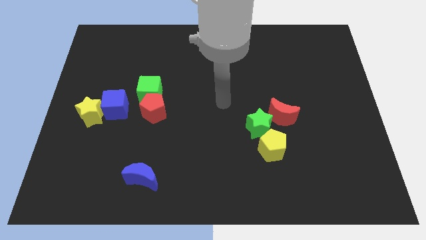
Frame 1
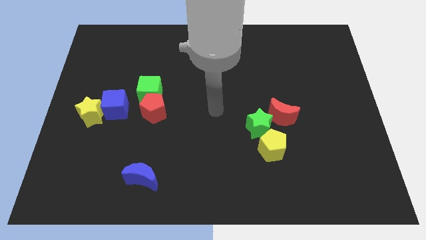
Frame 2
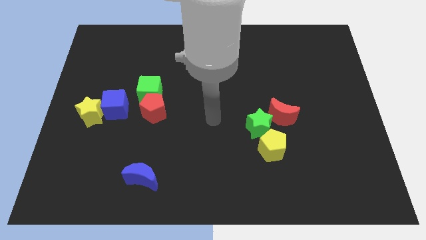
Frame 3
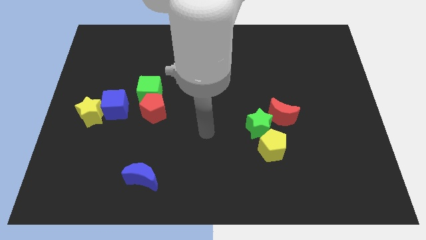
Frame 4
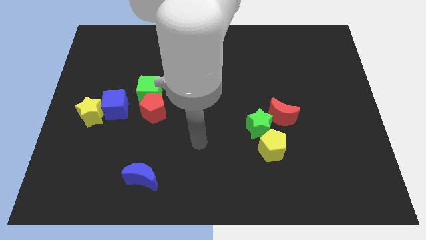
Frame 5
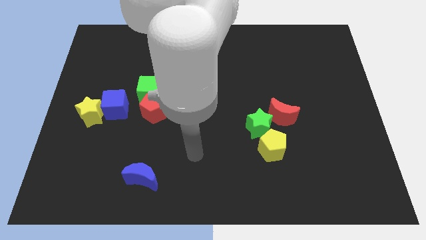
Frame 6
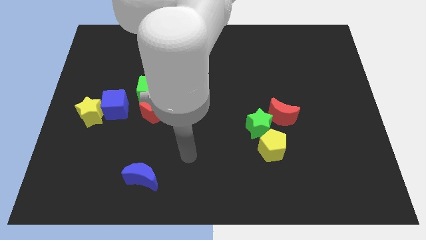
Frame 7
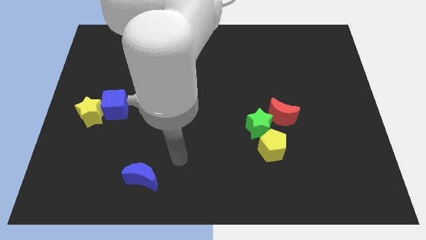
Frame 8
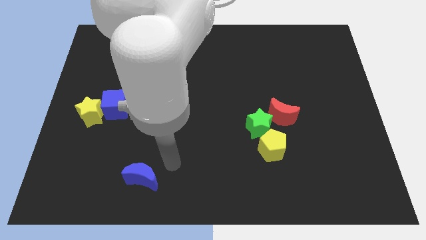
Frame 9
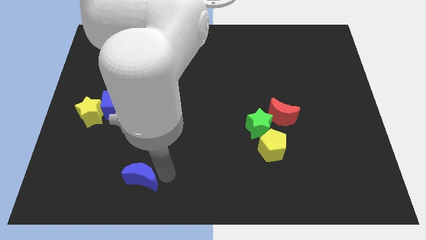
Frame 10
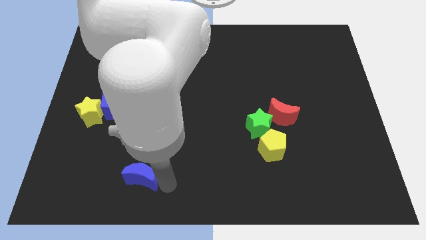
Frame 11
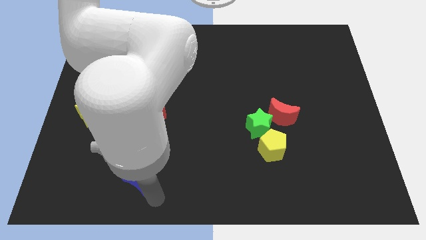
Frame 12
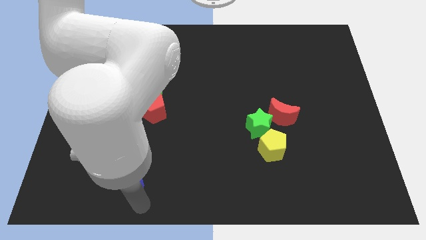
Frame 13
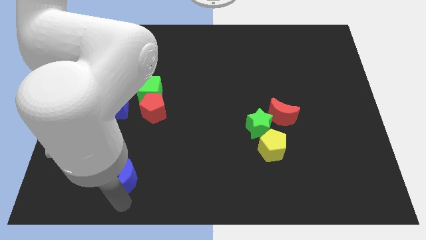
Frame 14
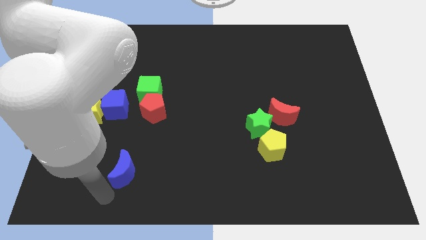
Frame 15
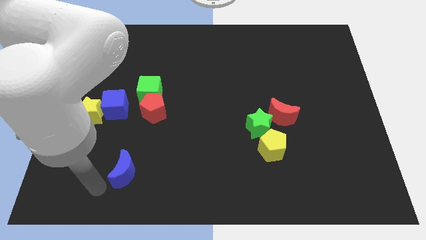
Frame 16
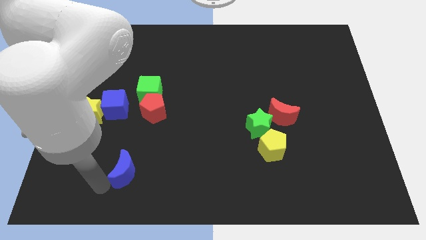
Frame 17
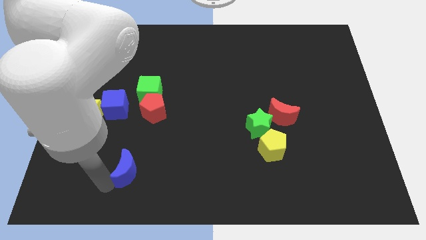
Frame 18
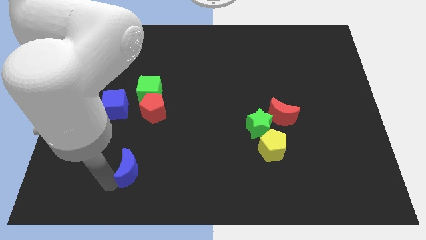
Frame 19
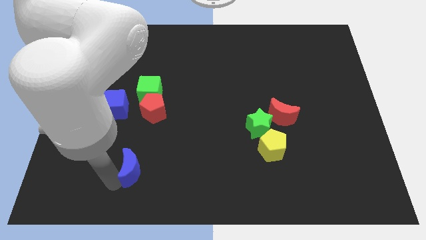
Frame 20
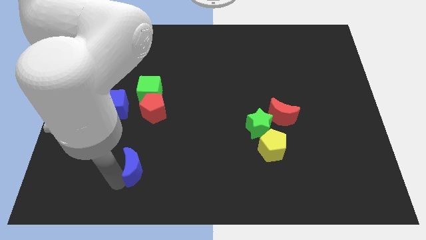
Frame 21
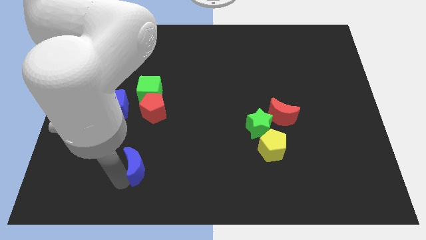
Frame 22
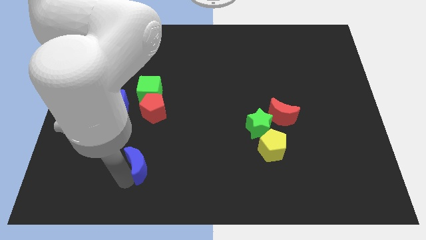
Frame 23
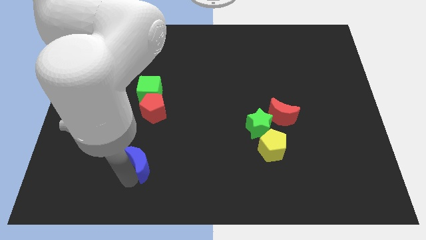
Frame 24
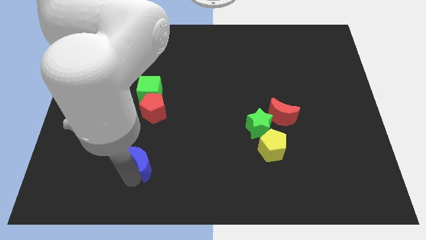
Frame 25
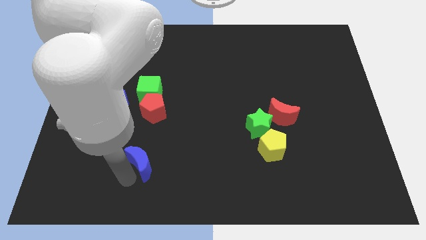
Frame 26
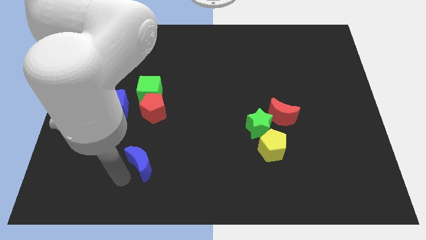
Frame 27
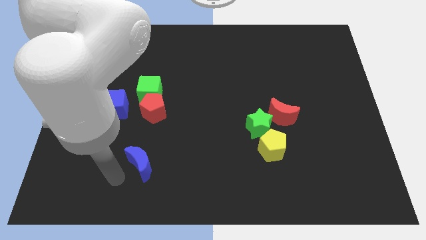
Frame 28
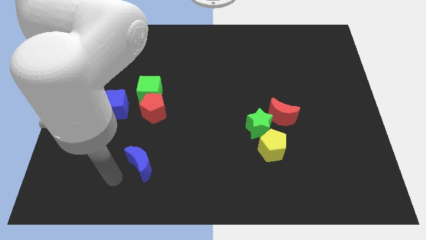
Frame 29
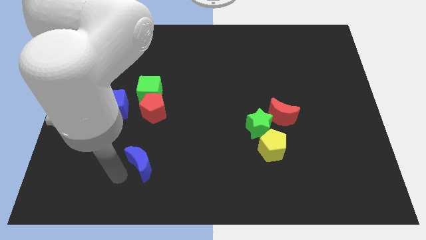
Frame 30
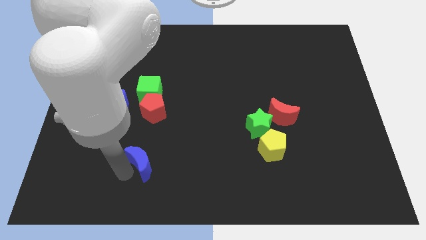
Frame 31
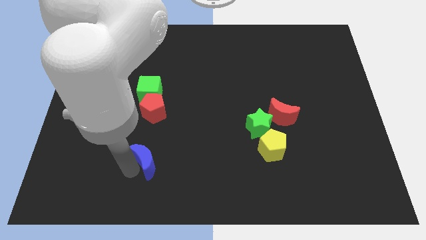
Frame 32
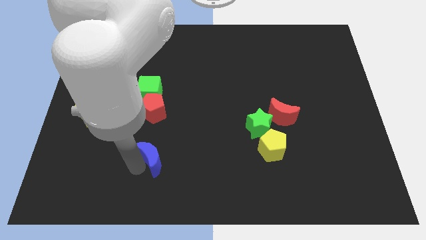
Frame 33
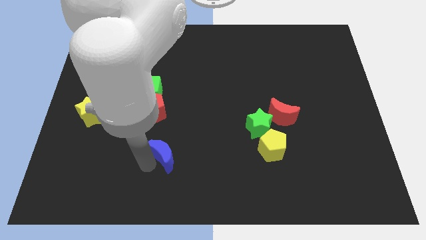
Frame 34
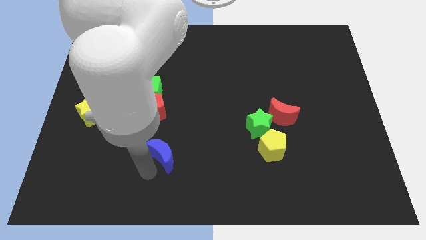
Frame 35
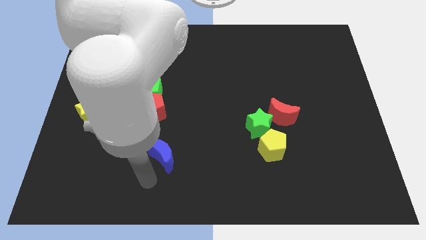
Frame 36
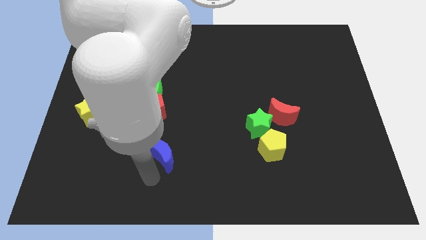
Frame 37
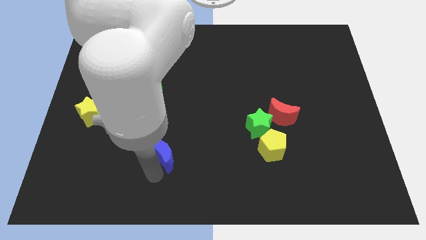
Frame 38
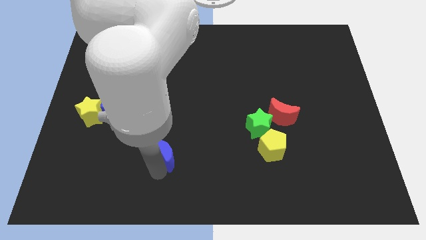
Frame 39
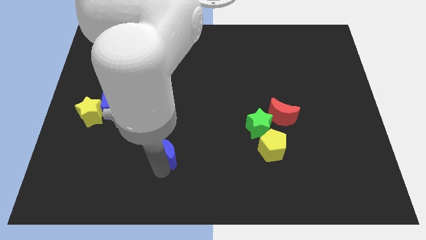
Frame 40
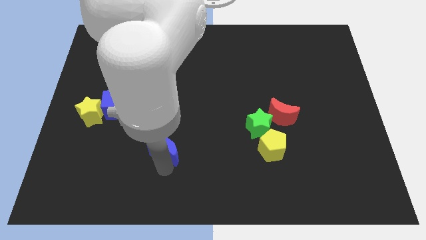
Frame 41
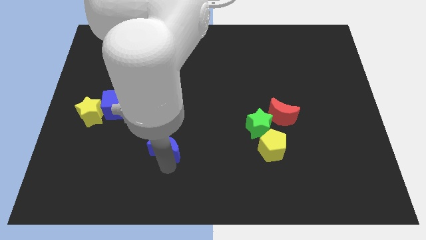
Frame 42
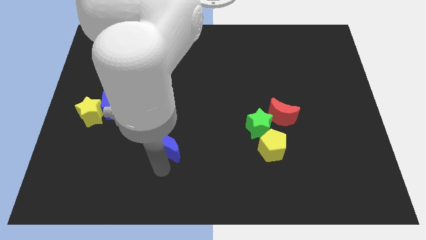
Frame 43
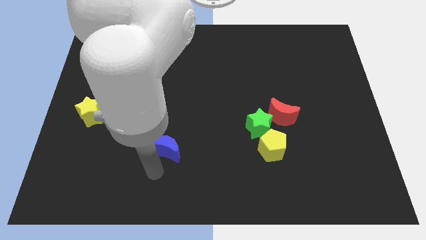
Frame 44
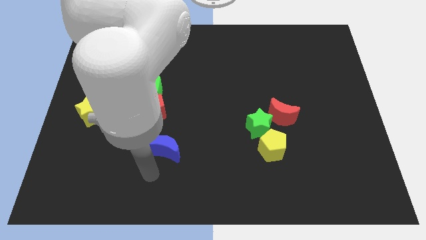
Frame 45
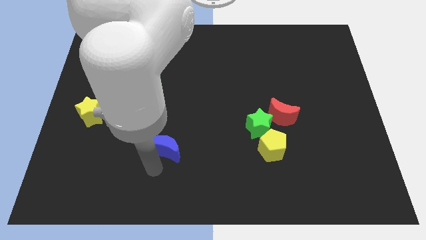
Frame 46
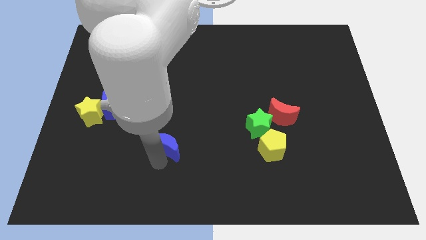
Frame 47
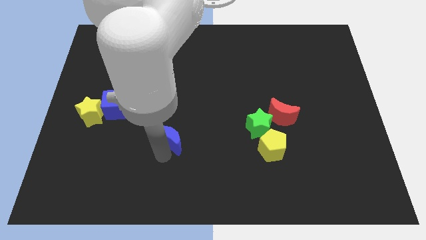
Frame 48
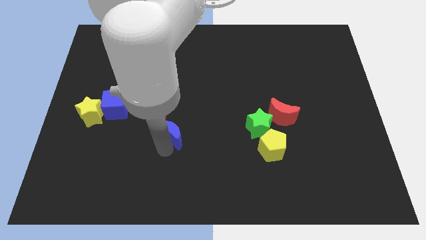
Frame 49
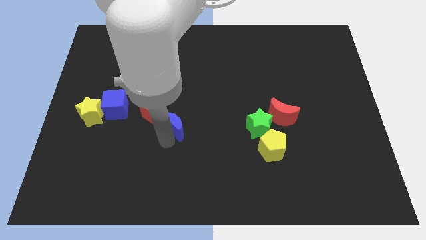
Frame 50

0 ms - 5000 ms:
push the blue moon to the middle

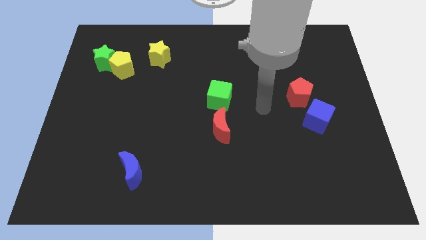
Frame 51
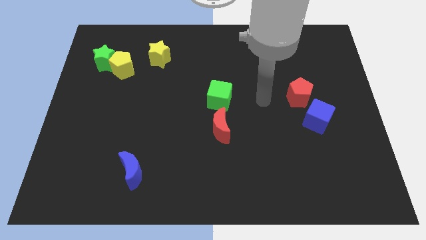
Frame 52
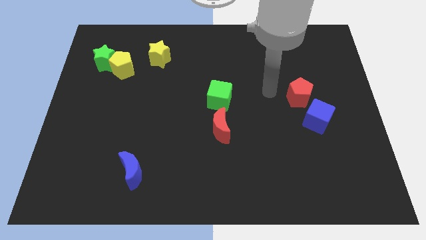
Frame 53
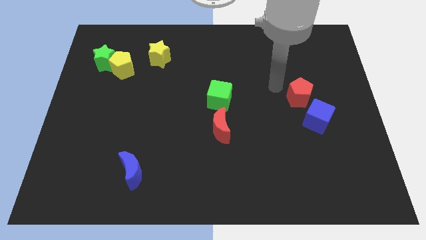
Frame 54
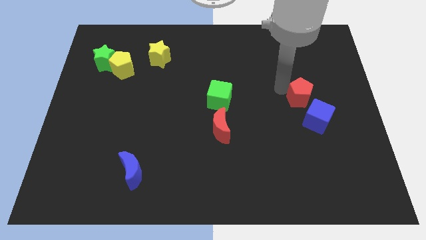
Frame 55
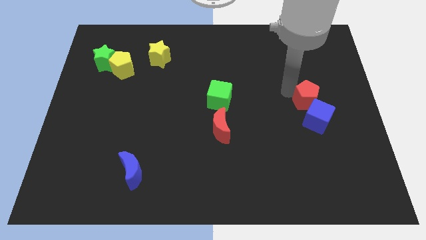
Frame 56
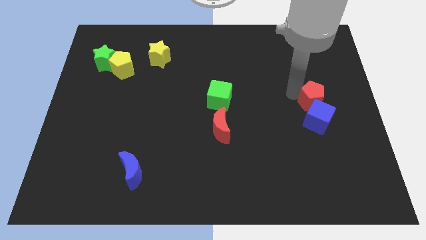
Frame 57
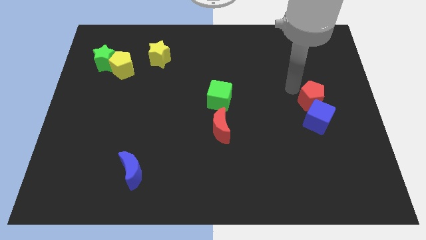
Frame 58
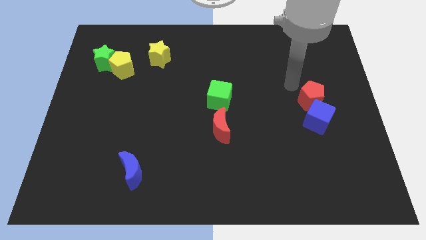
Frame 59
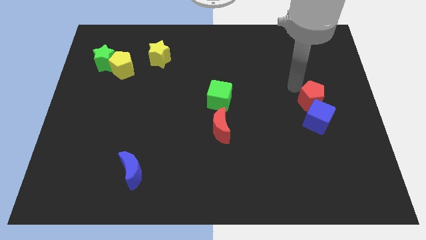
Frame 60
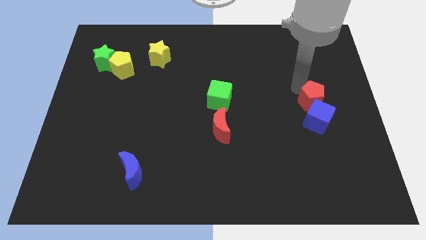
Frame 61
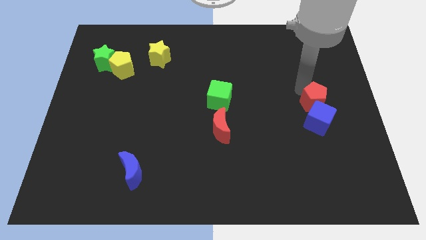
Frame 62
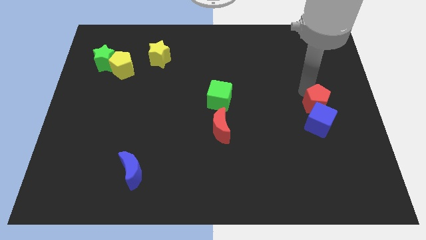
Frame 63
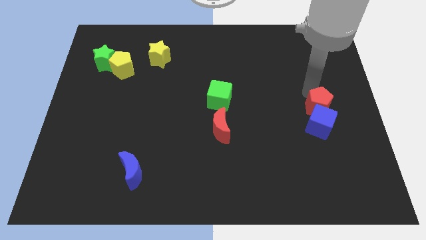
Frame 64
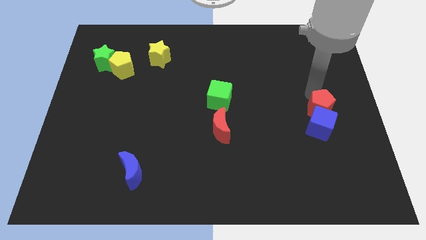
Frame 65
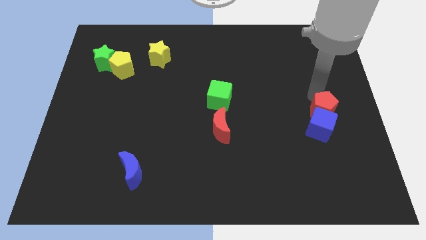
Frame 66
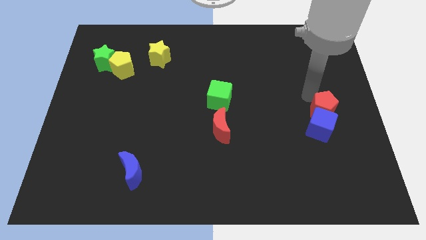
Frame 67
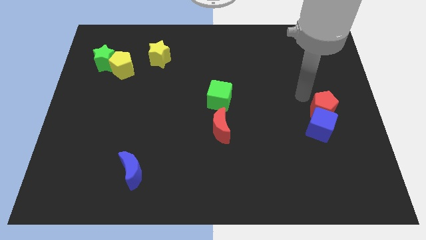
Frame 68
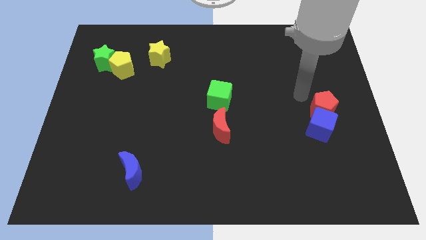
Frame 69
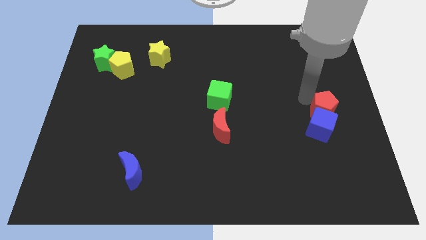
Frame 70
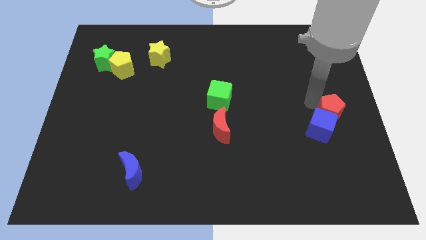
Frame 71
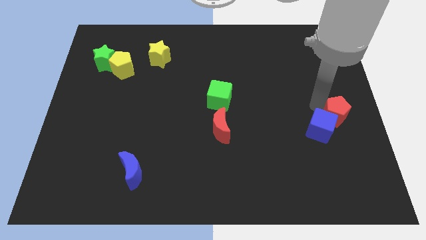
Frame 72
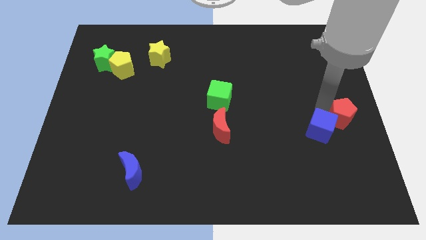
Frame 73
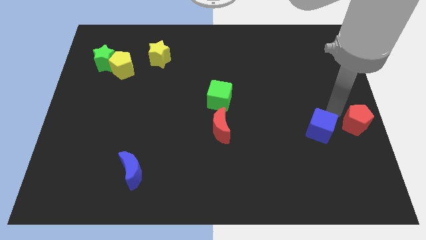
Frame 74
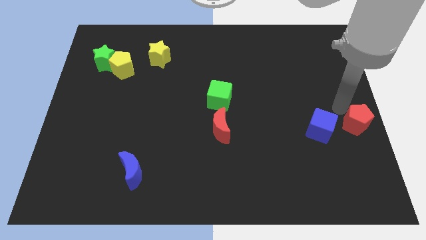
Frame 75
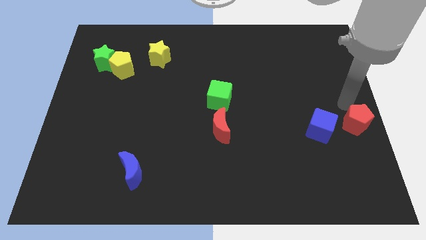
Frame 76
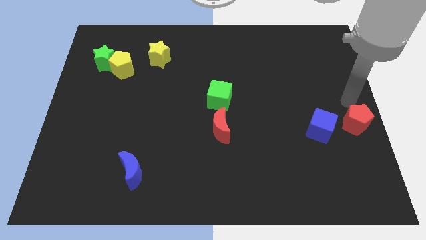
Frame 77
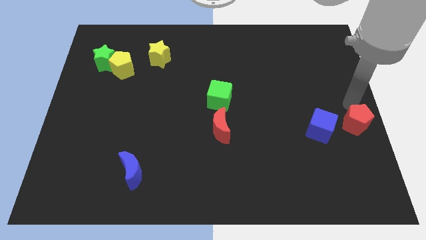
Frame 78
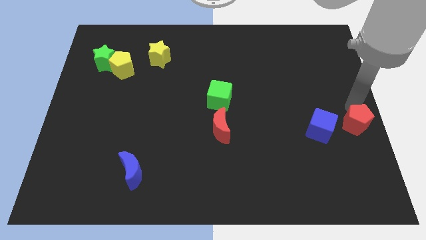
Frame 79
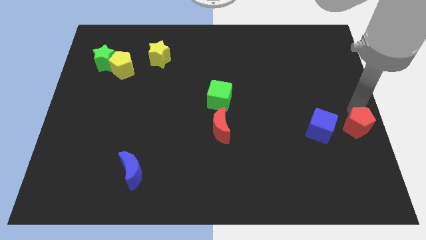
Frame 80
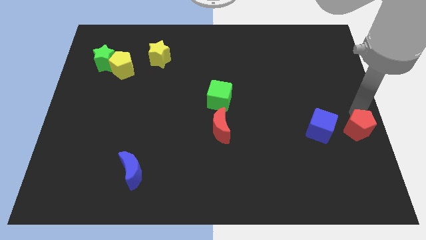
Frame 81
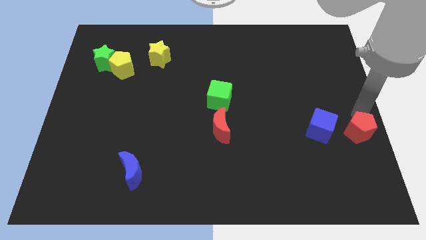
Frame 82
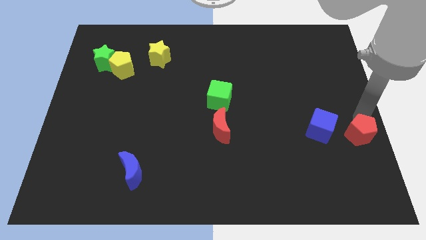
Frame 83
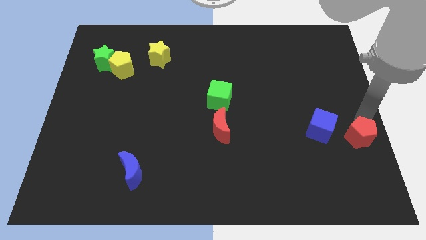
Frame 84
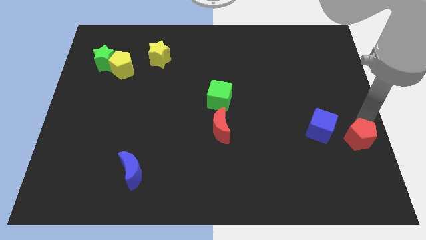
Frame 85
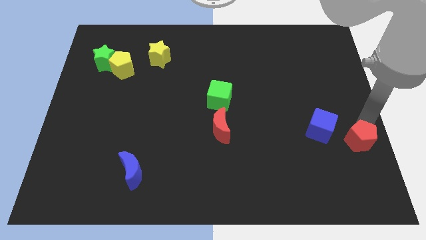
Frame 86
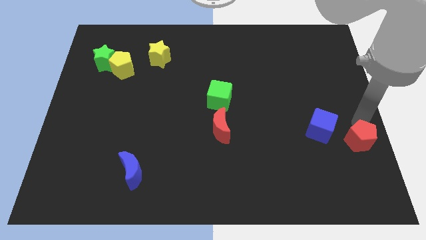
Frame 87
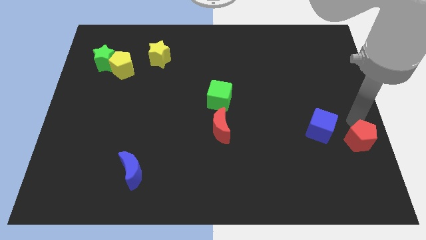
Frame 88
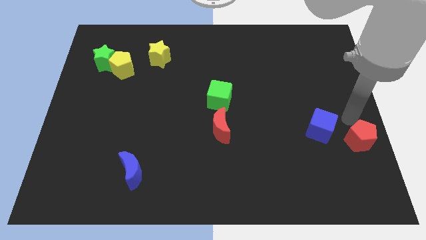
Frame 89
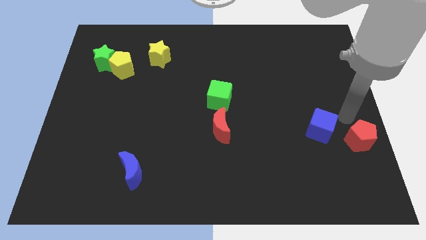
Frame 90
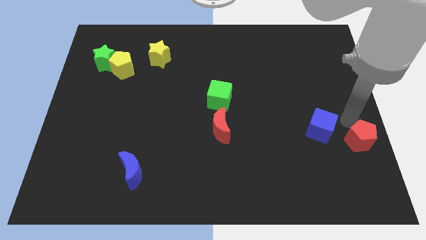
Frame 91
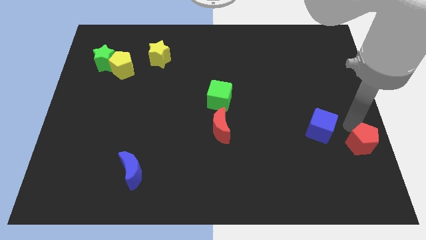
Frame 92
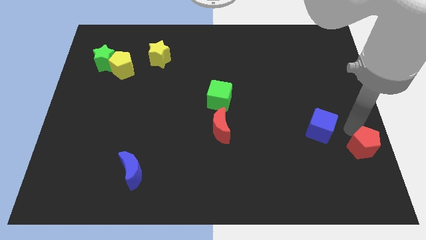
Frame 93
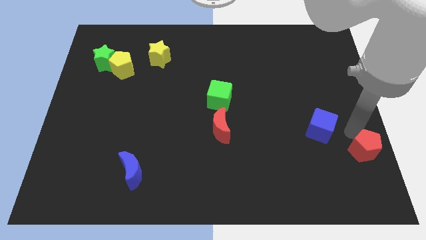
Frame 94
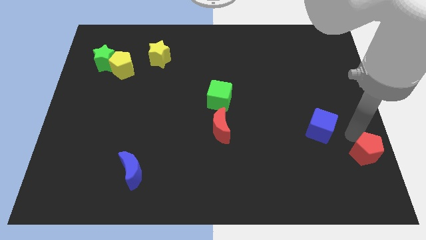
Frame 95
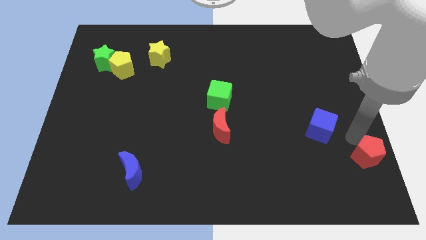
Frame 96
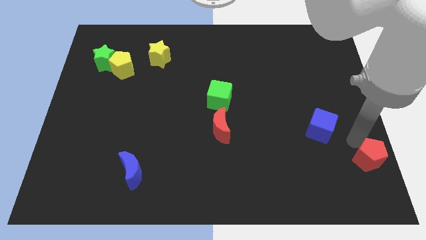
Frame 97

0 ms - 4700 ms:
push the red pentagon to the bottom right of the board
